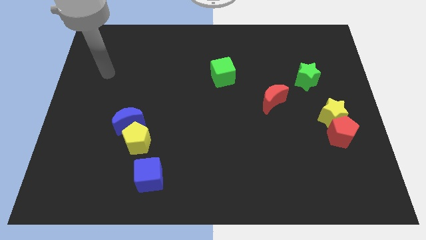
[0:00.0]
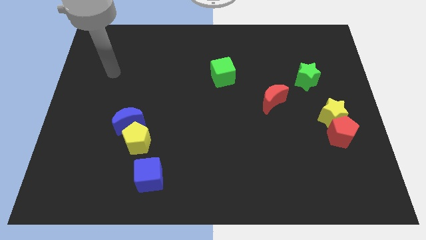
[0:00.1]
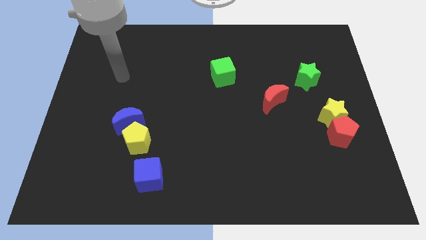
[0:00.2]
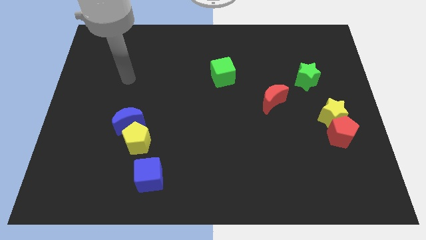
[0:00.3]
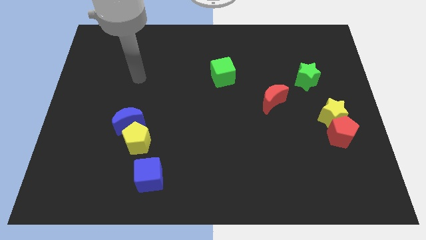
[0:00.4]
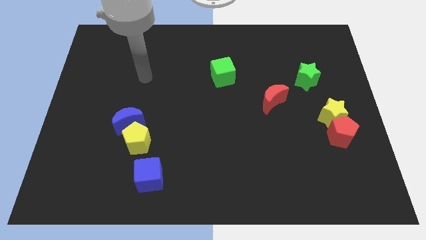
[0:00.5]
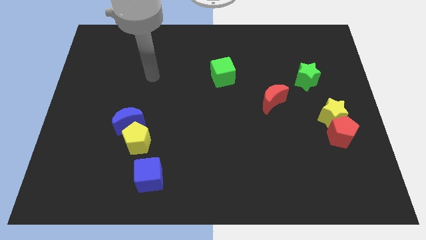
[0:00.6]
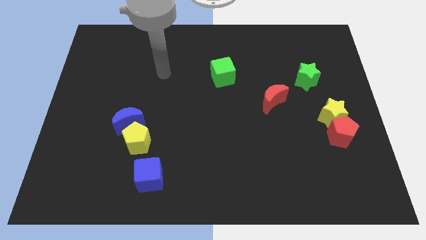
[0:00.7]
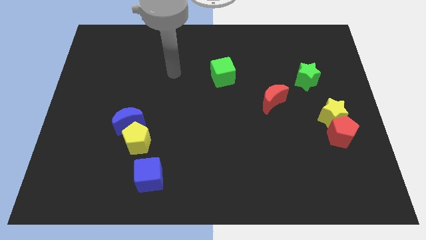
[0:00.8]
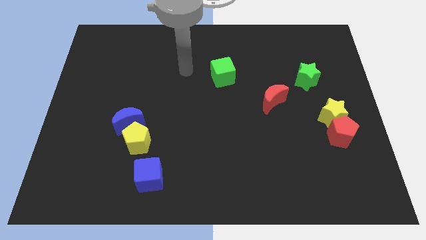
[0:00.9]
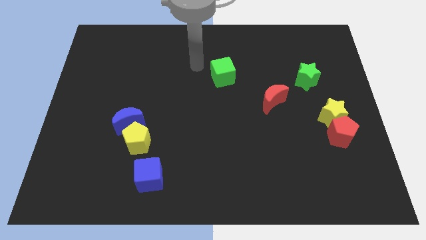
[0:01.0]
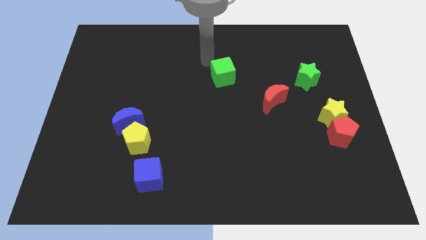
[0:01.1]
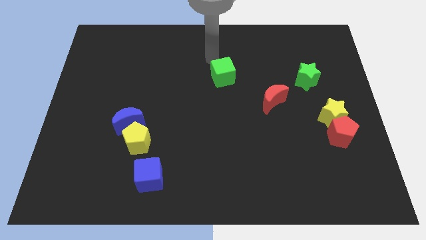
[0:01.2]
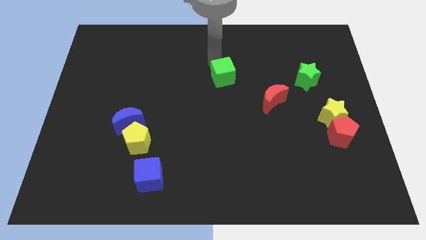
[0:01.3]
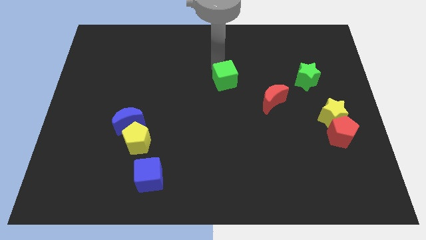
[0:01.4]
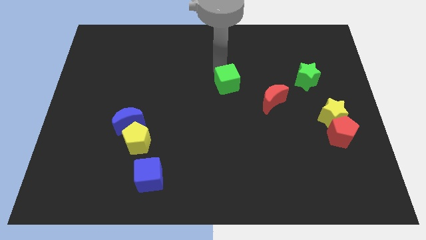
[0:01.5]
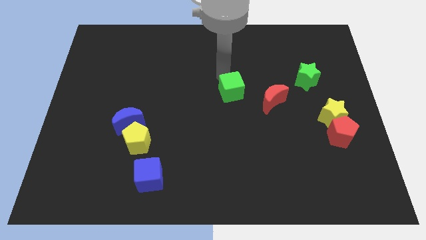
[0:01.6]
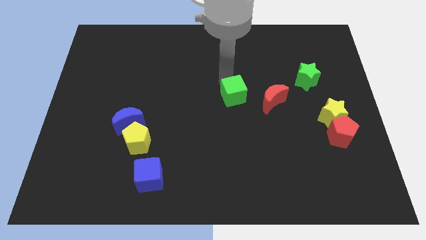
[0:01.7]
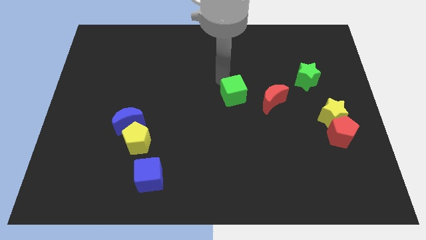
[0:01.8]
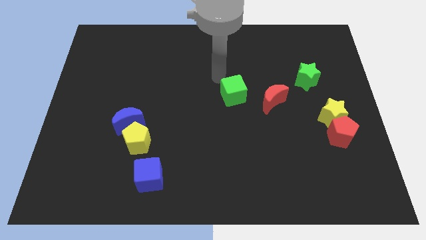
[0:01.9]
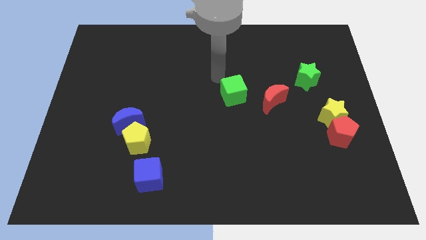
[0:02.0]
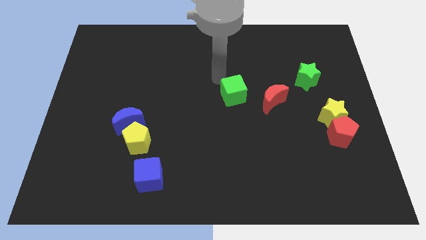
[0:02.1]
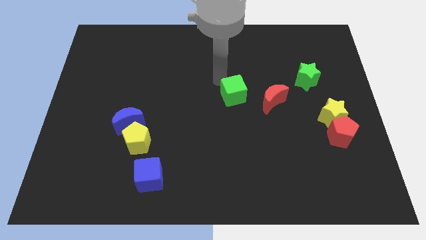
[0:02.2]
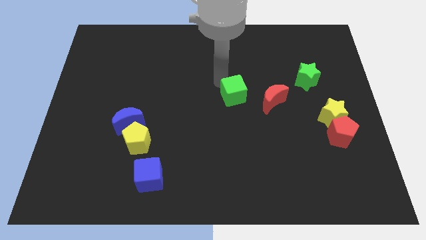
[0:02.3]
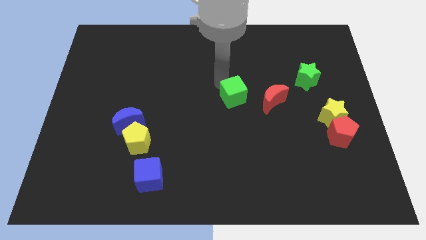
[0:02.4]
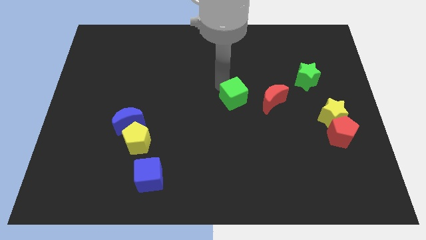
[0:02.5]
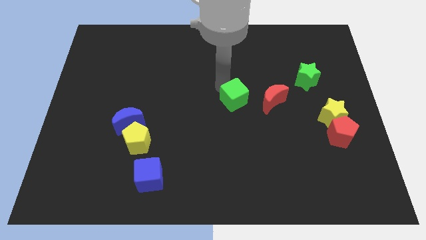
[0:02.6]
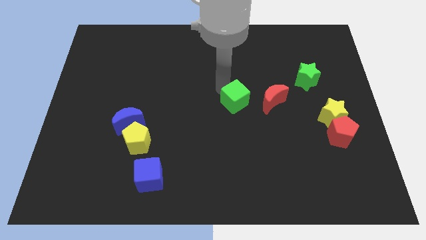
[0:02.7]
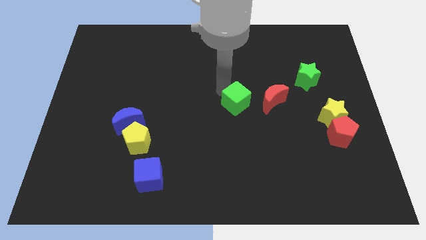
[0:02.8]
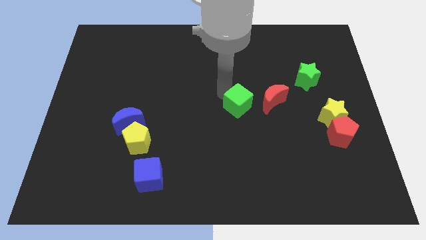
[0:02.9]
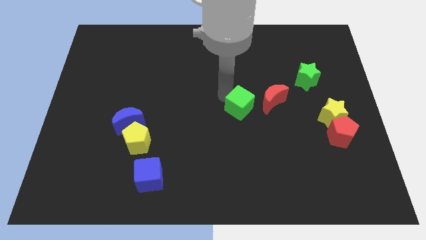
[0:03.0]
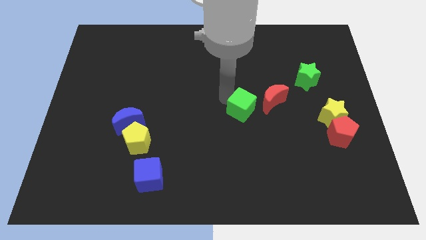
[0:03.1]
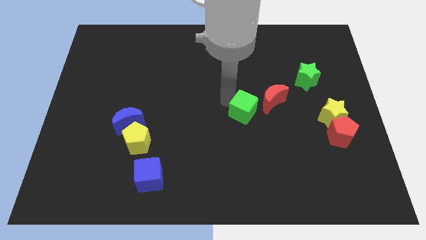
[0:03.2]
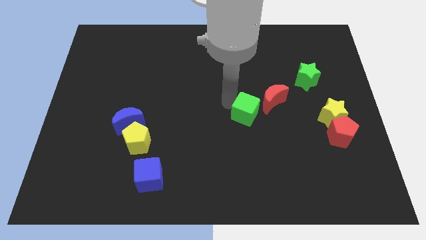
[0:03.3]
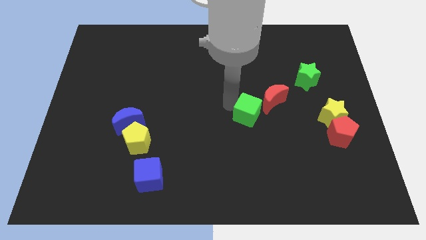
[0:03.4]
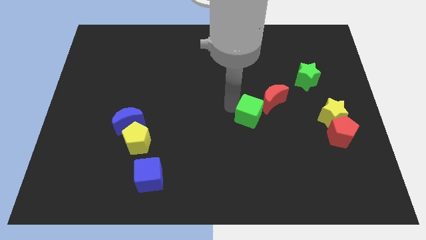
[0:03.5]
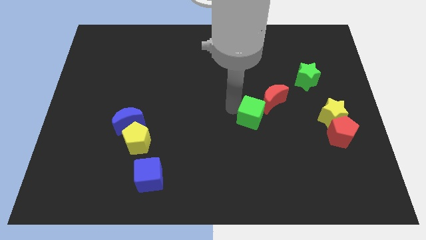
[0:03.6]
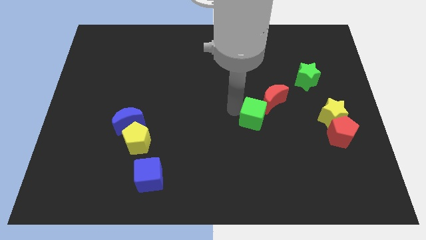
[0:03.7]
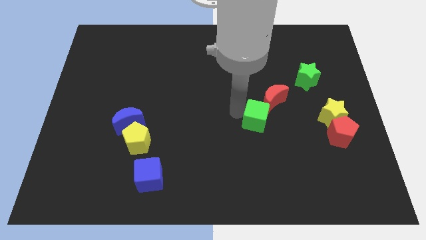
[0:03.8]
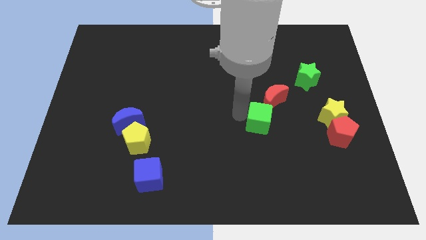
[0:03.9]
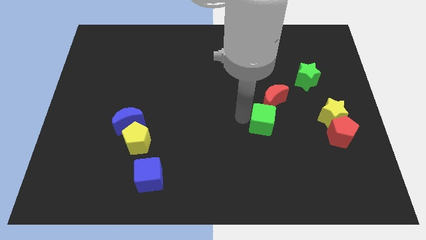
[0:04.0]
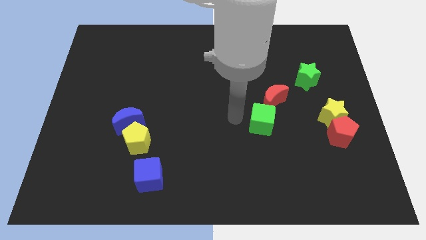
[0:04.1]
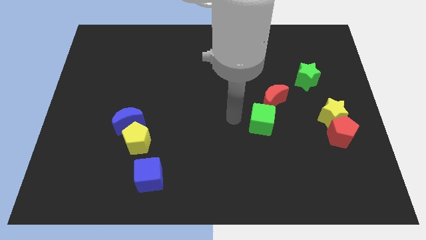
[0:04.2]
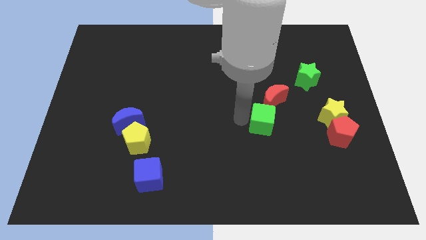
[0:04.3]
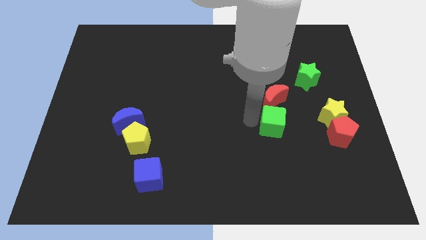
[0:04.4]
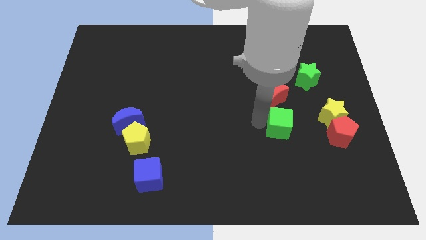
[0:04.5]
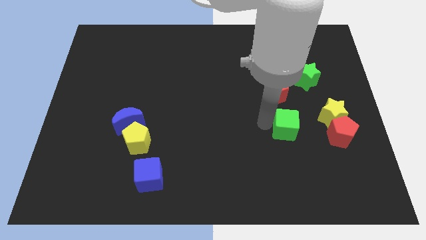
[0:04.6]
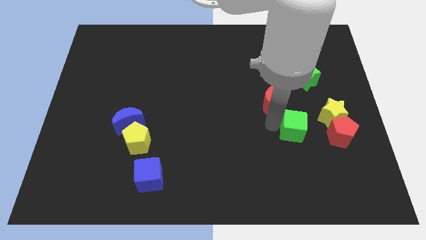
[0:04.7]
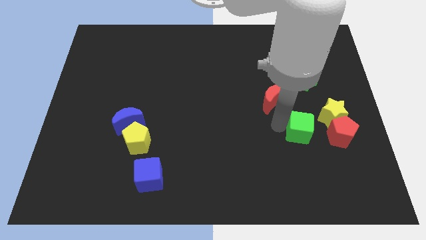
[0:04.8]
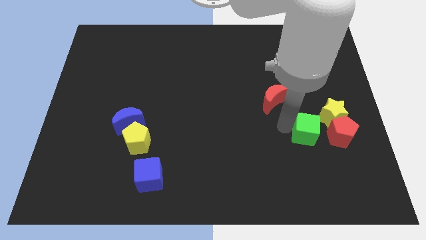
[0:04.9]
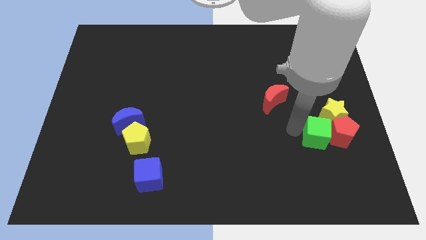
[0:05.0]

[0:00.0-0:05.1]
put the green cube next to the red pentagon

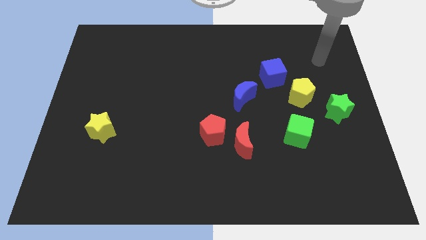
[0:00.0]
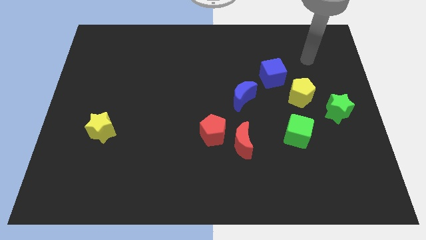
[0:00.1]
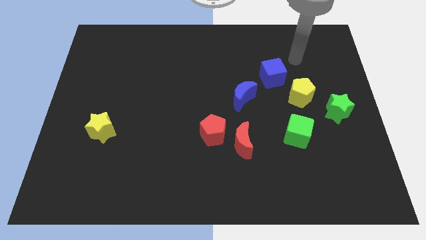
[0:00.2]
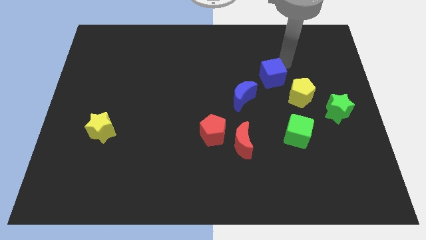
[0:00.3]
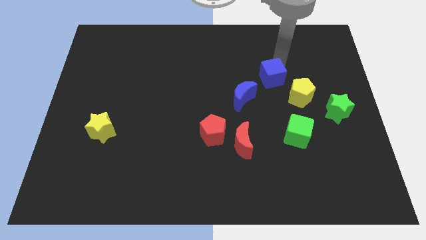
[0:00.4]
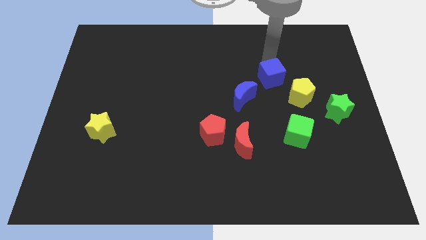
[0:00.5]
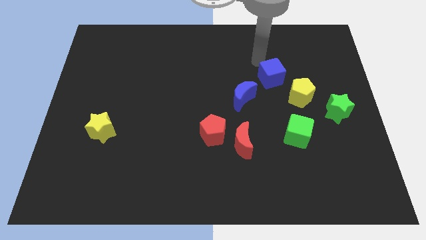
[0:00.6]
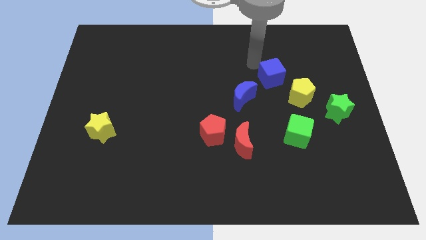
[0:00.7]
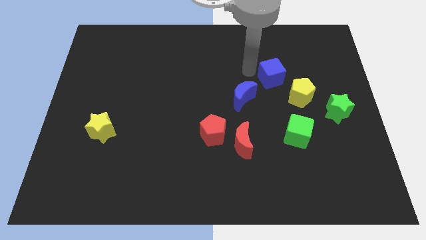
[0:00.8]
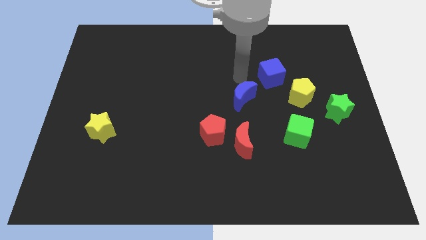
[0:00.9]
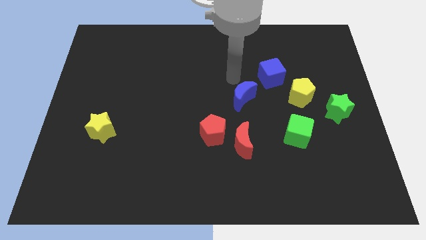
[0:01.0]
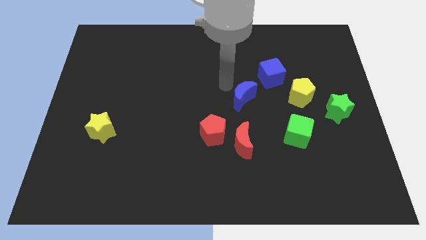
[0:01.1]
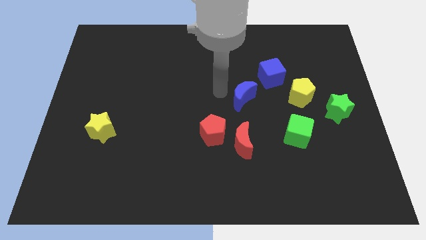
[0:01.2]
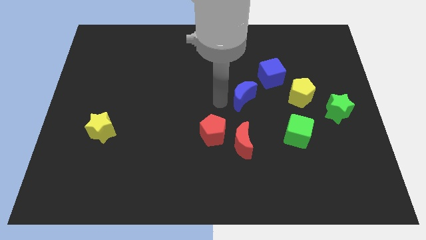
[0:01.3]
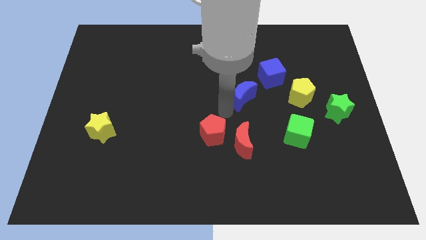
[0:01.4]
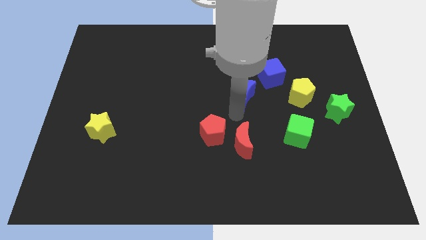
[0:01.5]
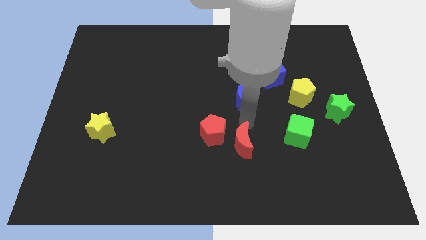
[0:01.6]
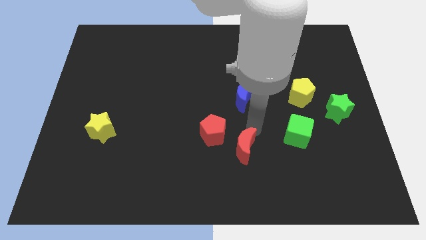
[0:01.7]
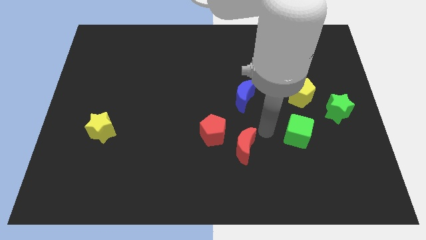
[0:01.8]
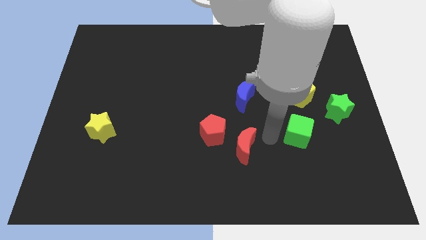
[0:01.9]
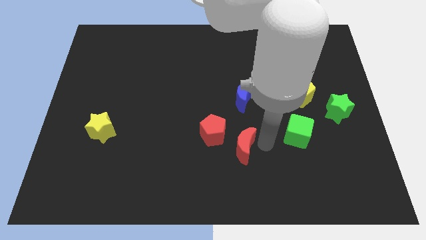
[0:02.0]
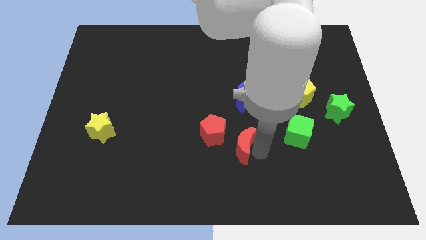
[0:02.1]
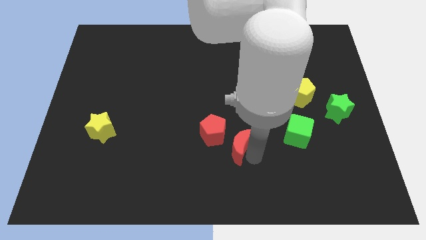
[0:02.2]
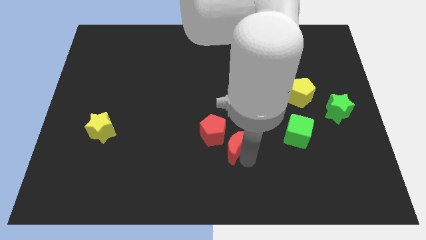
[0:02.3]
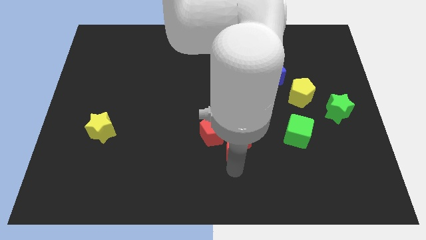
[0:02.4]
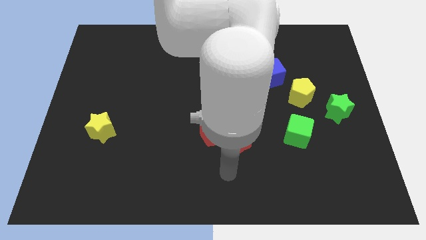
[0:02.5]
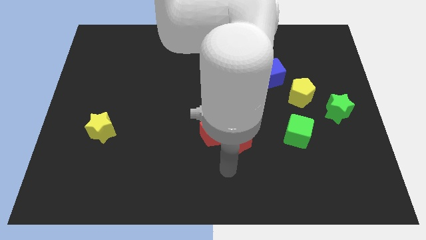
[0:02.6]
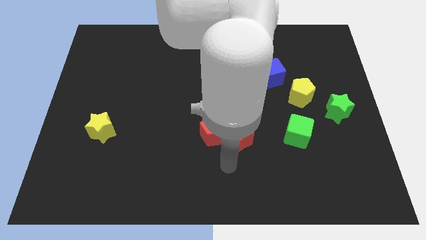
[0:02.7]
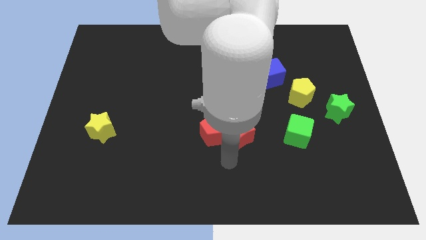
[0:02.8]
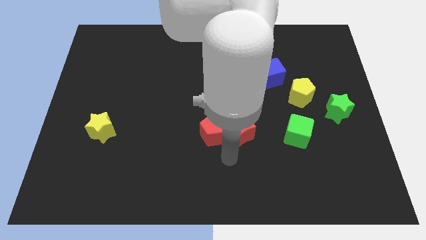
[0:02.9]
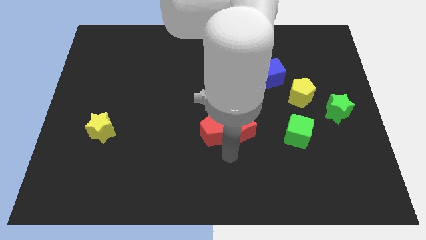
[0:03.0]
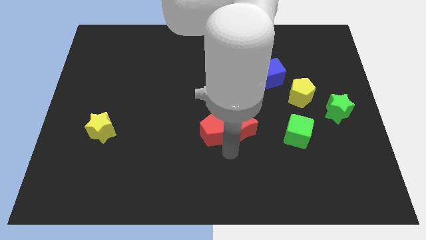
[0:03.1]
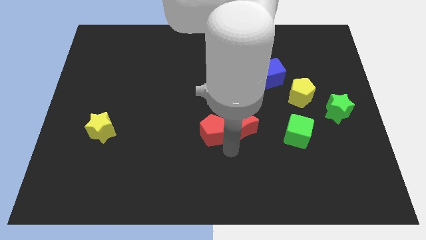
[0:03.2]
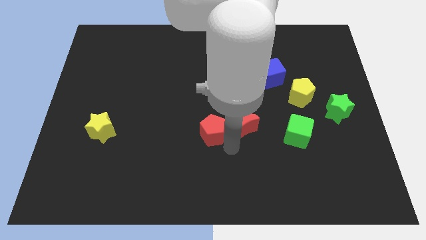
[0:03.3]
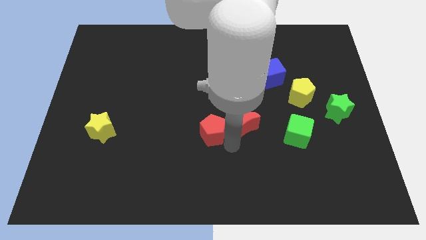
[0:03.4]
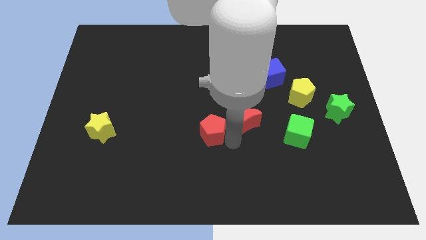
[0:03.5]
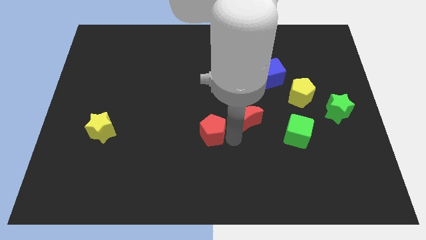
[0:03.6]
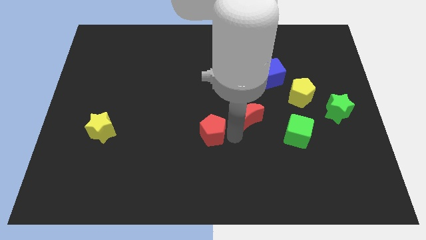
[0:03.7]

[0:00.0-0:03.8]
slide the red moon close to the blue moon
